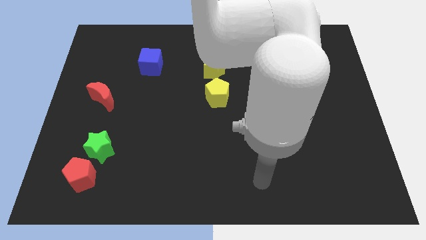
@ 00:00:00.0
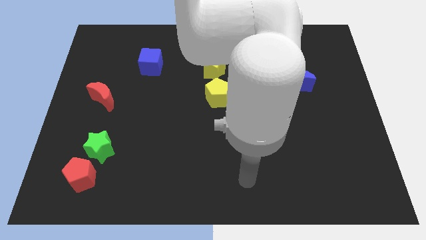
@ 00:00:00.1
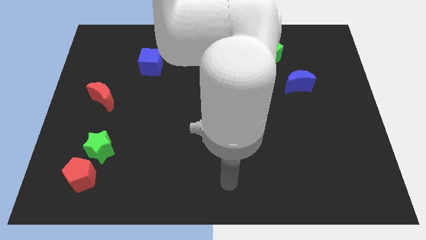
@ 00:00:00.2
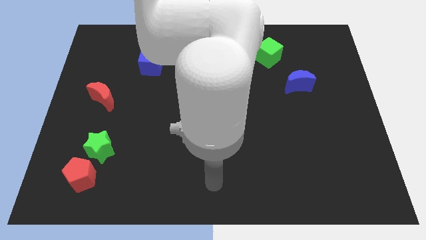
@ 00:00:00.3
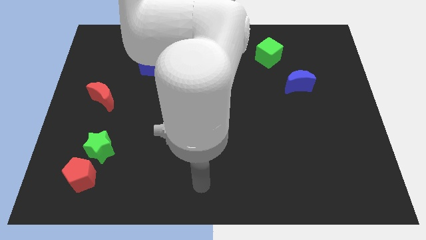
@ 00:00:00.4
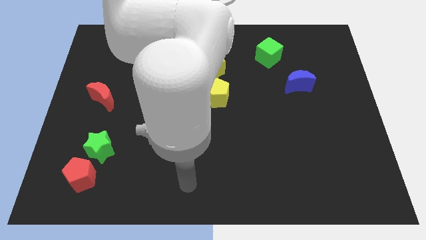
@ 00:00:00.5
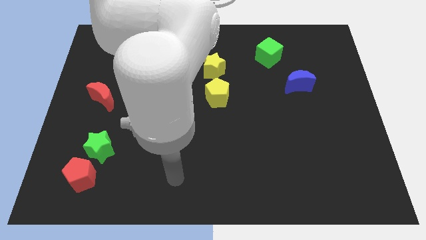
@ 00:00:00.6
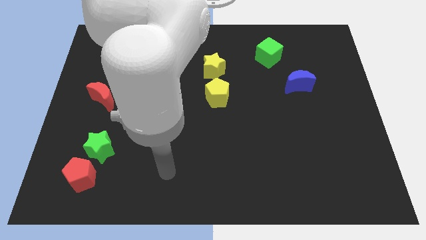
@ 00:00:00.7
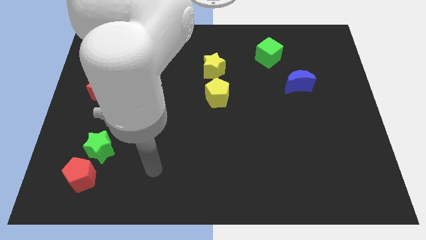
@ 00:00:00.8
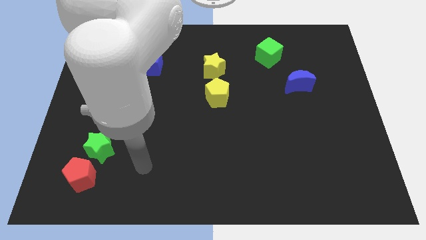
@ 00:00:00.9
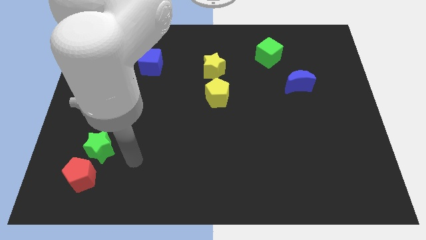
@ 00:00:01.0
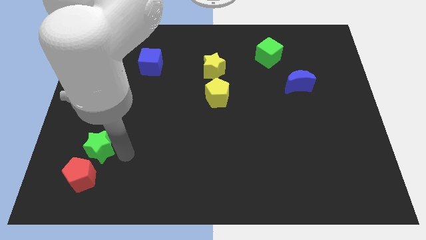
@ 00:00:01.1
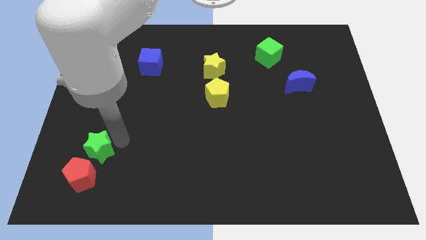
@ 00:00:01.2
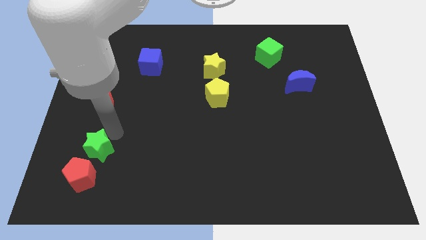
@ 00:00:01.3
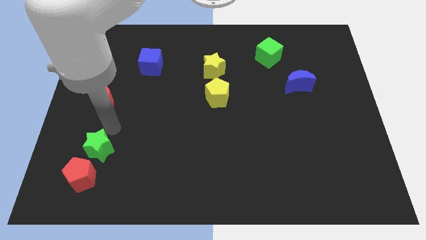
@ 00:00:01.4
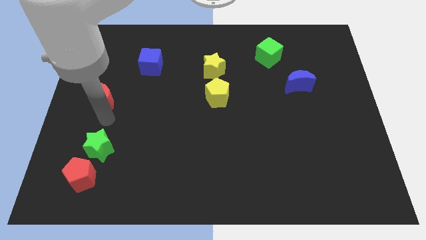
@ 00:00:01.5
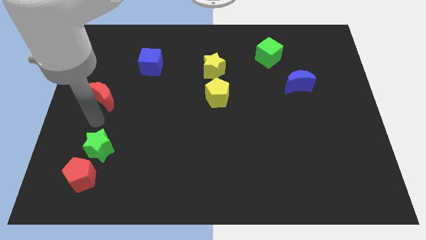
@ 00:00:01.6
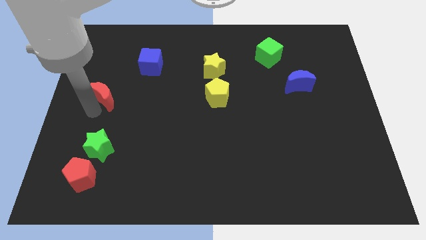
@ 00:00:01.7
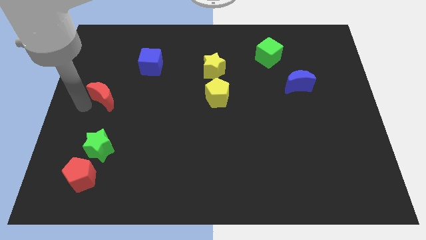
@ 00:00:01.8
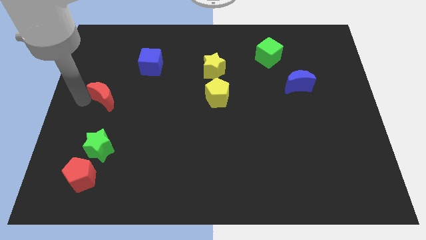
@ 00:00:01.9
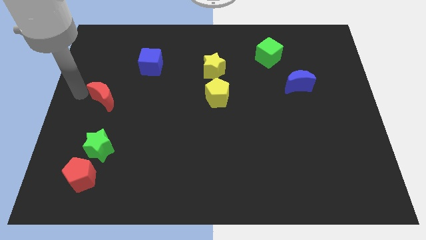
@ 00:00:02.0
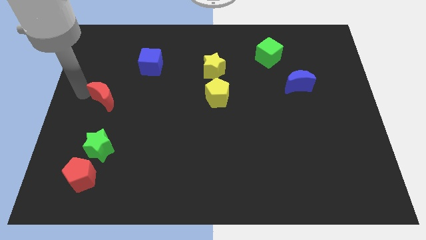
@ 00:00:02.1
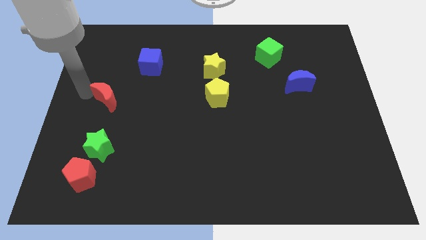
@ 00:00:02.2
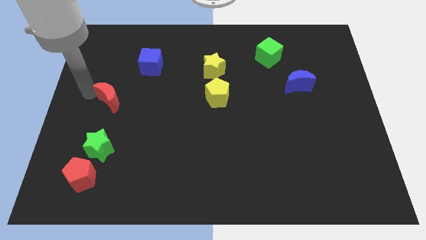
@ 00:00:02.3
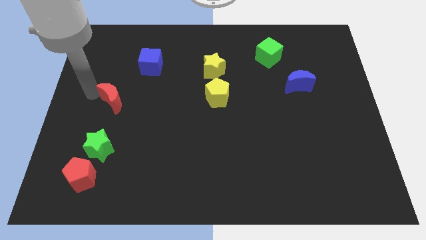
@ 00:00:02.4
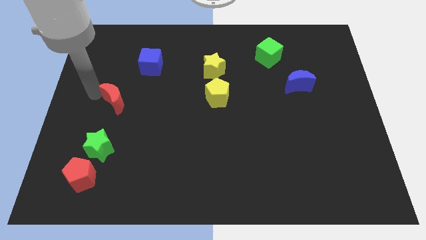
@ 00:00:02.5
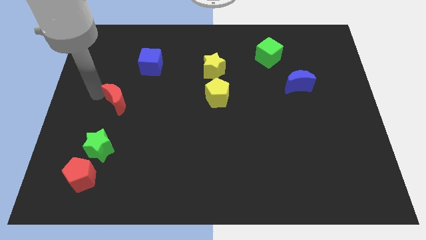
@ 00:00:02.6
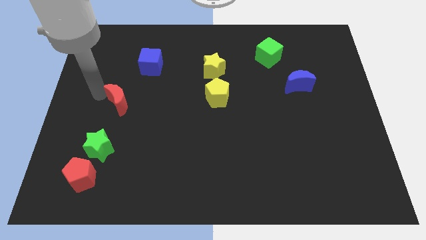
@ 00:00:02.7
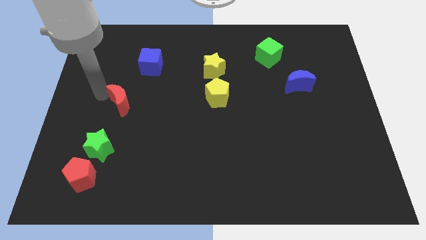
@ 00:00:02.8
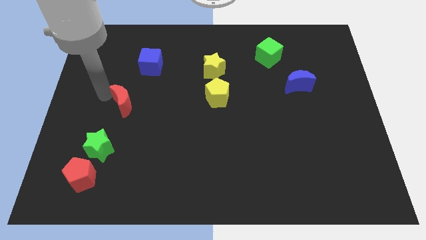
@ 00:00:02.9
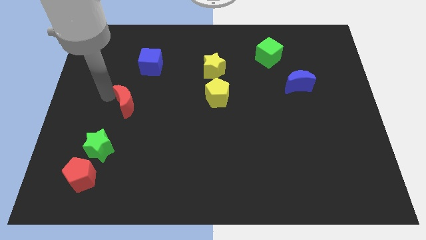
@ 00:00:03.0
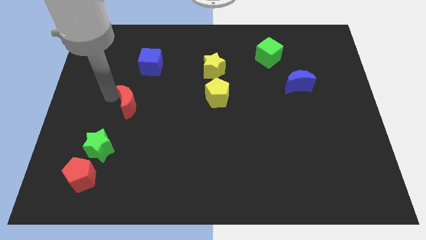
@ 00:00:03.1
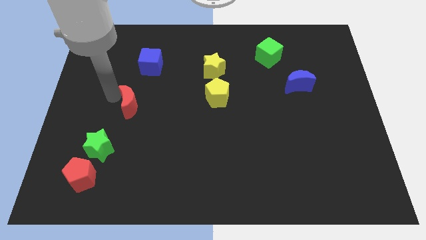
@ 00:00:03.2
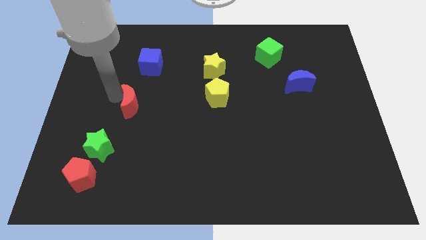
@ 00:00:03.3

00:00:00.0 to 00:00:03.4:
slightly push the red moon right

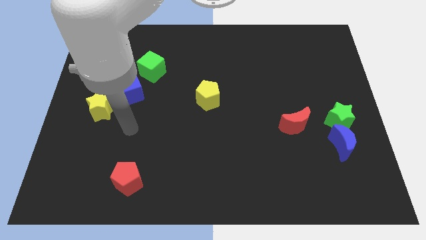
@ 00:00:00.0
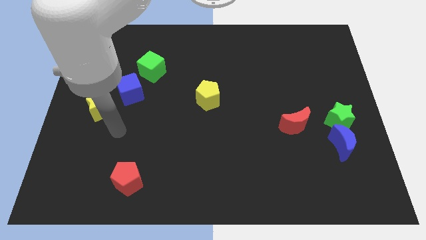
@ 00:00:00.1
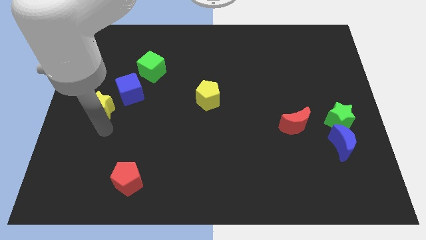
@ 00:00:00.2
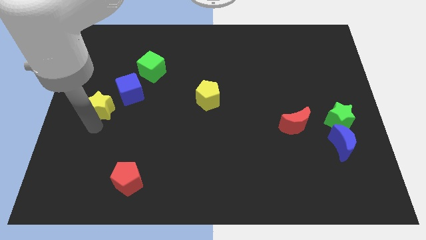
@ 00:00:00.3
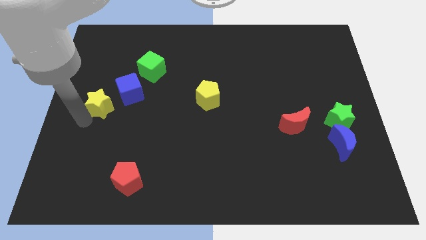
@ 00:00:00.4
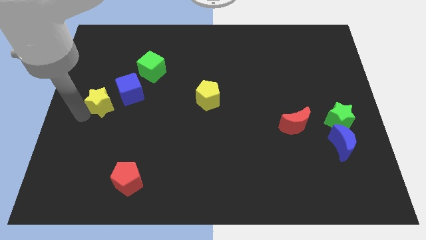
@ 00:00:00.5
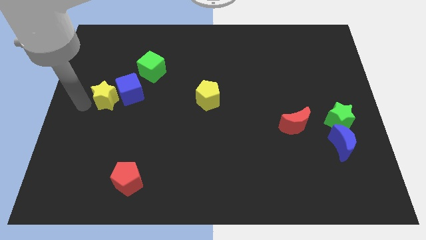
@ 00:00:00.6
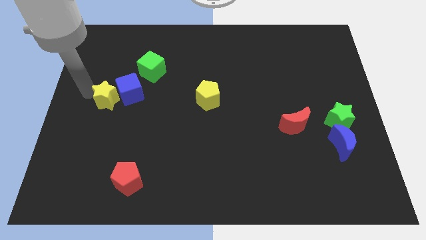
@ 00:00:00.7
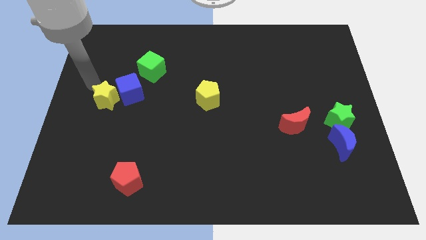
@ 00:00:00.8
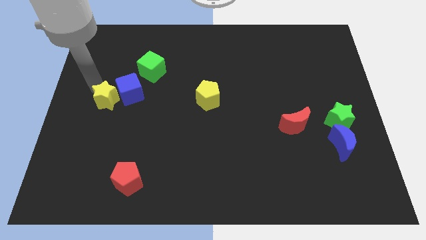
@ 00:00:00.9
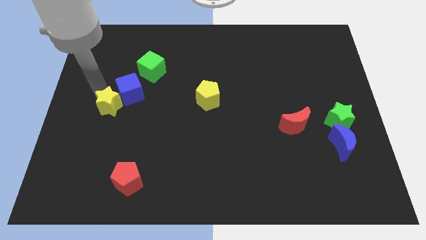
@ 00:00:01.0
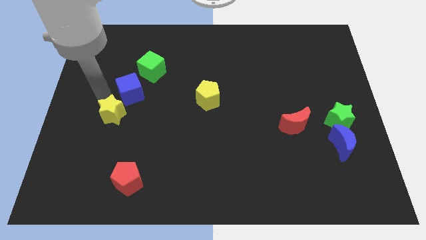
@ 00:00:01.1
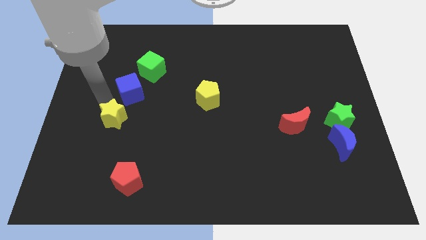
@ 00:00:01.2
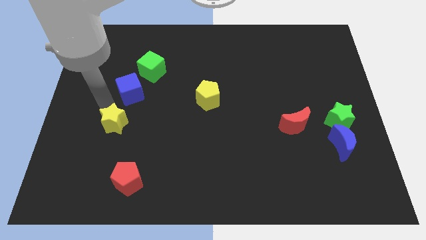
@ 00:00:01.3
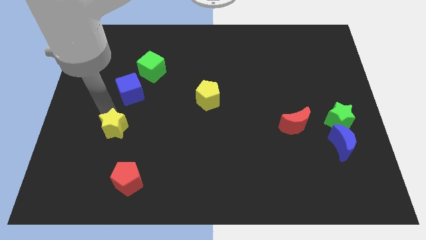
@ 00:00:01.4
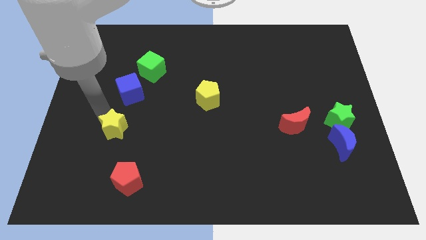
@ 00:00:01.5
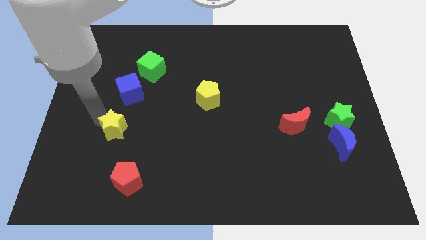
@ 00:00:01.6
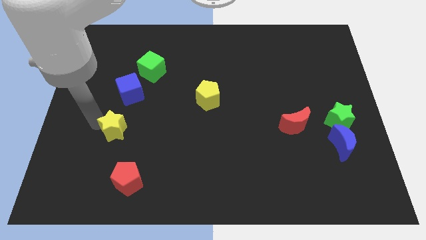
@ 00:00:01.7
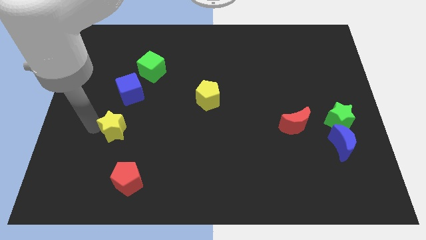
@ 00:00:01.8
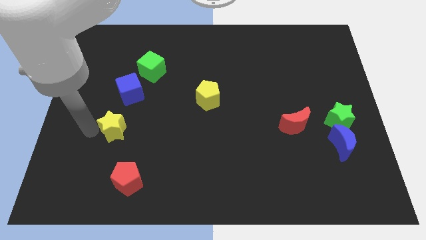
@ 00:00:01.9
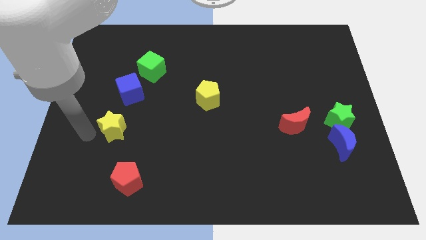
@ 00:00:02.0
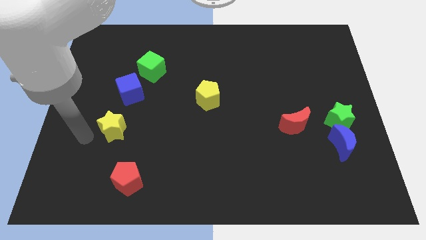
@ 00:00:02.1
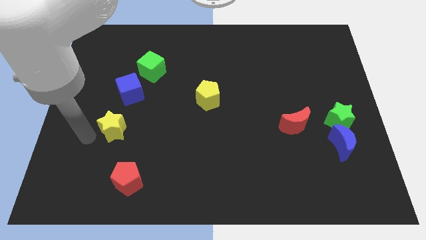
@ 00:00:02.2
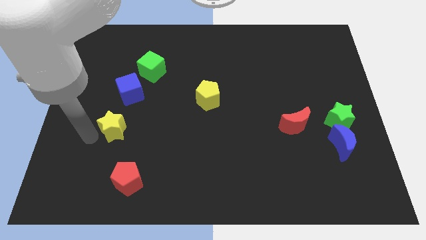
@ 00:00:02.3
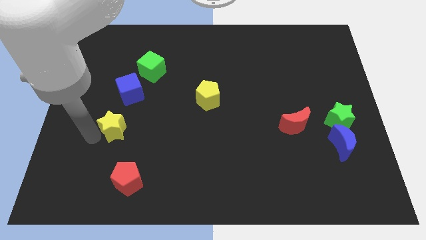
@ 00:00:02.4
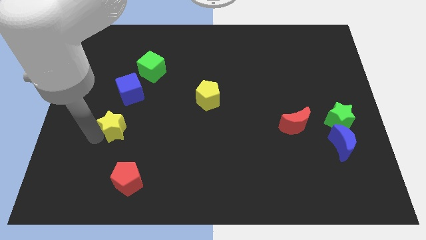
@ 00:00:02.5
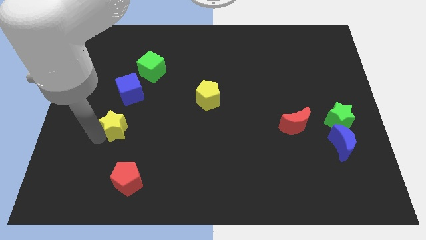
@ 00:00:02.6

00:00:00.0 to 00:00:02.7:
move the yellow star diagonally down and to the right somewhat

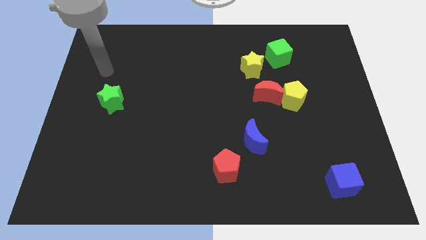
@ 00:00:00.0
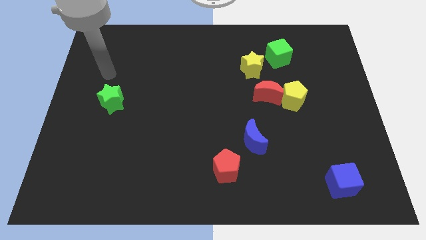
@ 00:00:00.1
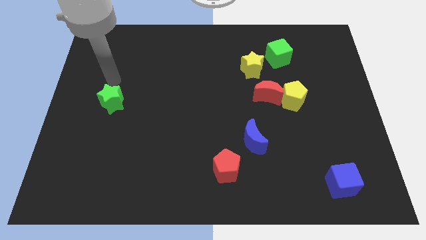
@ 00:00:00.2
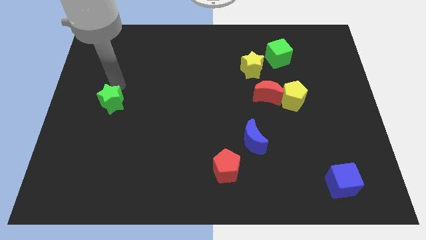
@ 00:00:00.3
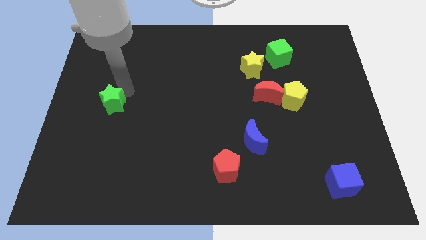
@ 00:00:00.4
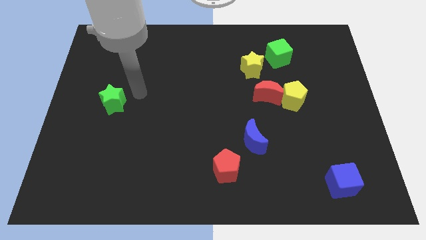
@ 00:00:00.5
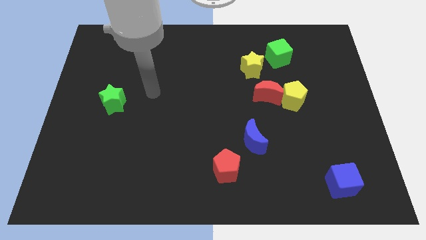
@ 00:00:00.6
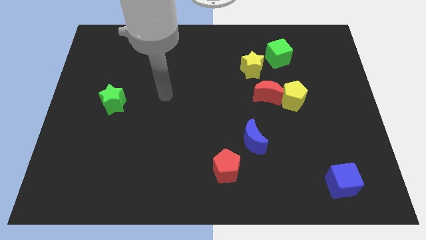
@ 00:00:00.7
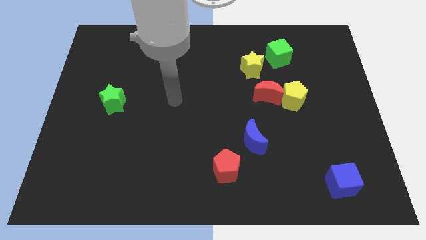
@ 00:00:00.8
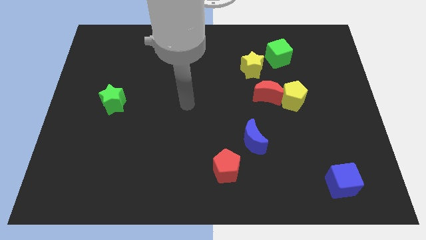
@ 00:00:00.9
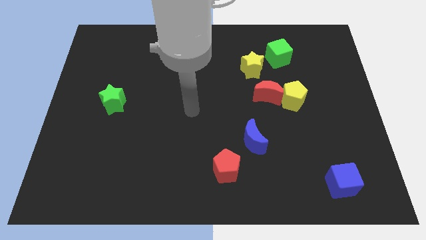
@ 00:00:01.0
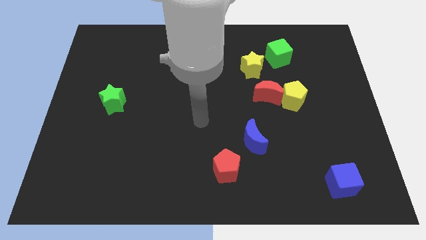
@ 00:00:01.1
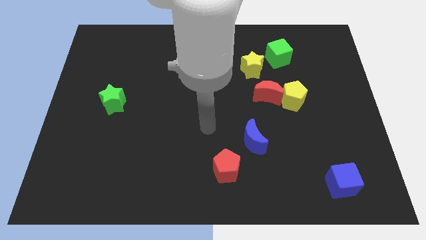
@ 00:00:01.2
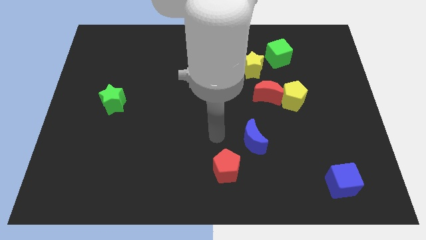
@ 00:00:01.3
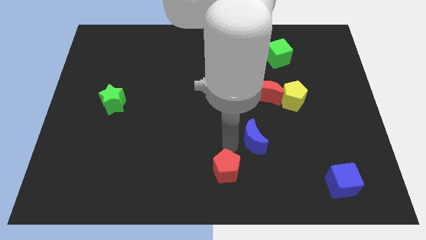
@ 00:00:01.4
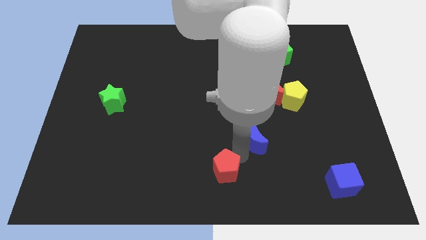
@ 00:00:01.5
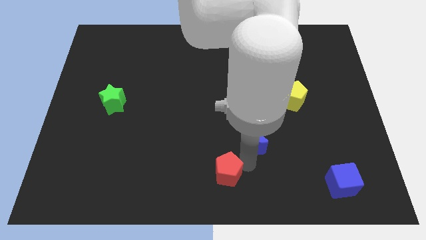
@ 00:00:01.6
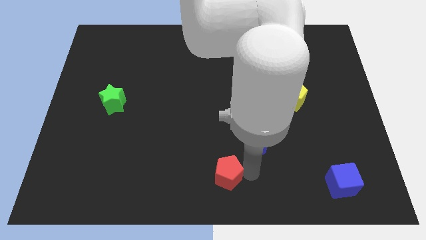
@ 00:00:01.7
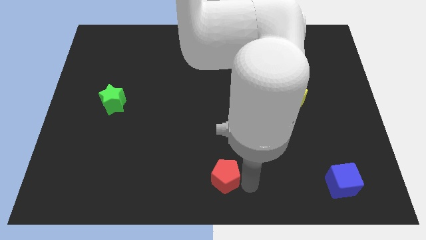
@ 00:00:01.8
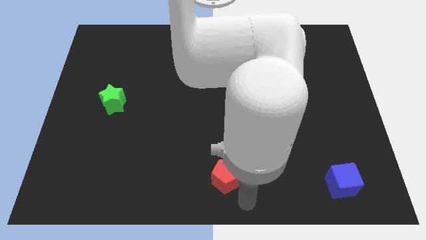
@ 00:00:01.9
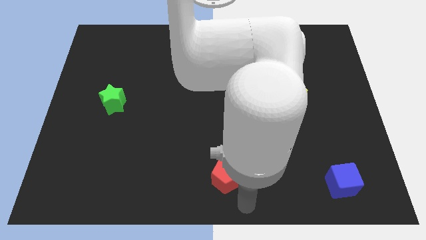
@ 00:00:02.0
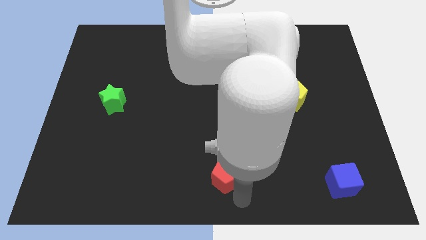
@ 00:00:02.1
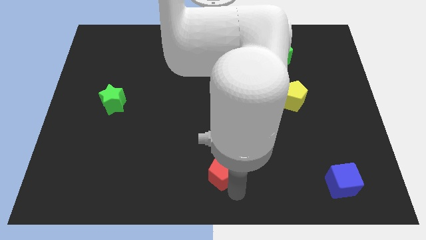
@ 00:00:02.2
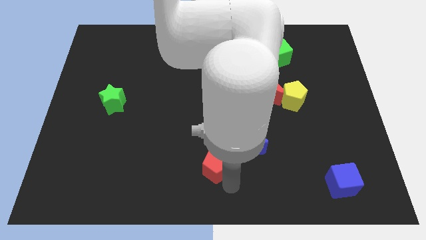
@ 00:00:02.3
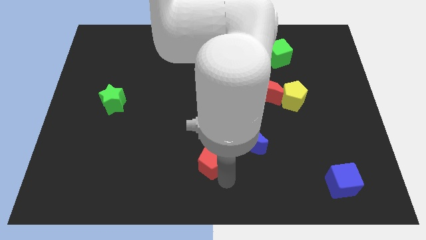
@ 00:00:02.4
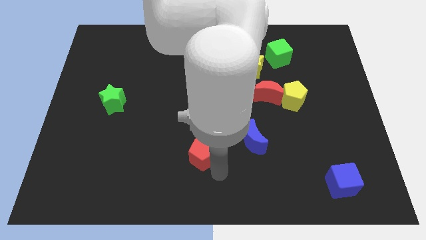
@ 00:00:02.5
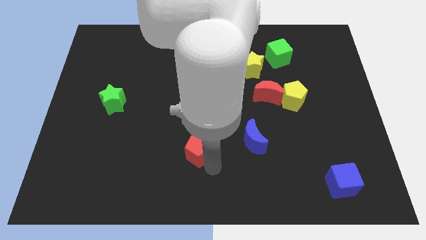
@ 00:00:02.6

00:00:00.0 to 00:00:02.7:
slightly slide the red pentagon up and to the left diagonally
